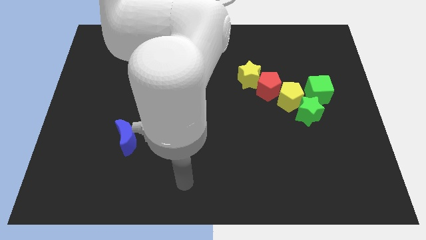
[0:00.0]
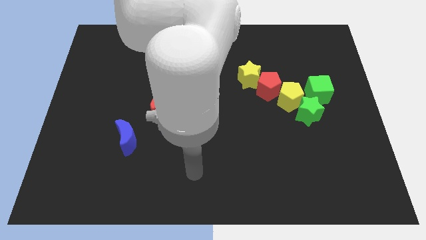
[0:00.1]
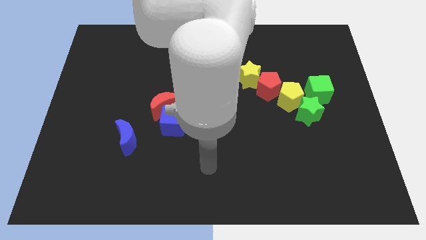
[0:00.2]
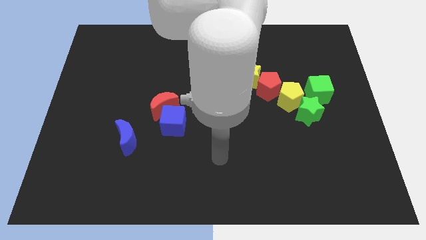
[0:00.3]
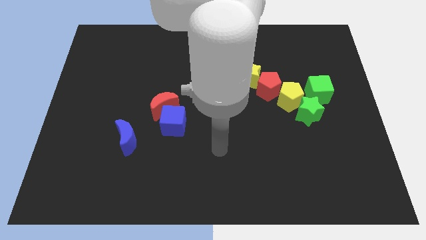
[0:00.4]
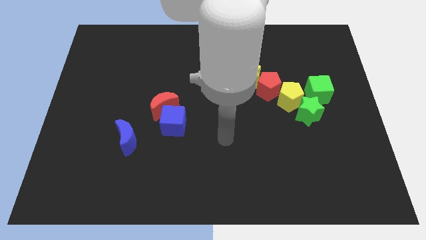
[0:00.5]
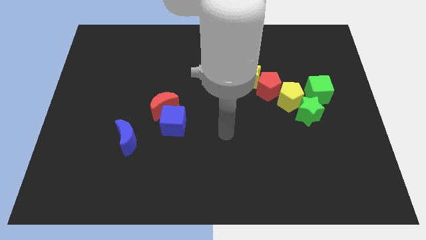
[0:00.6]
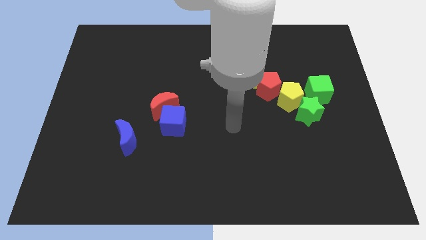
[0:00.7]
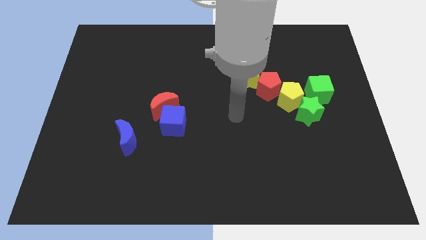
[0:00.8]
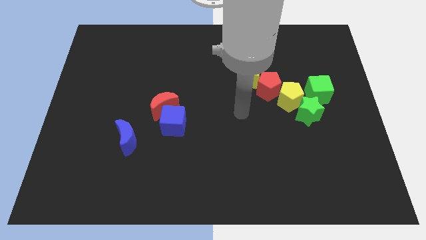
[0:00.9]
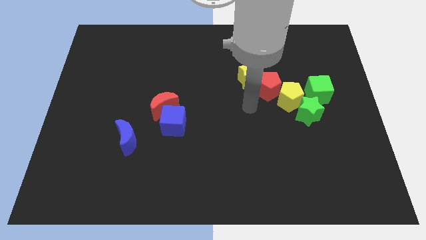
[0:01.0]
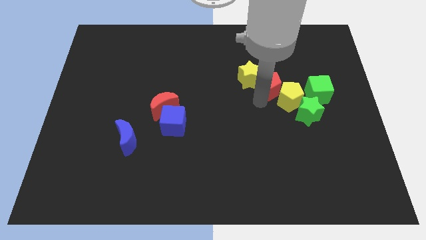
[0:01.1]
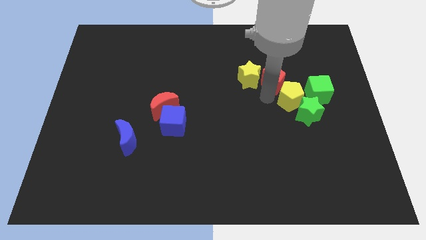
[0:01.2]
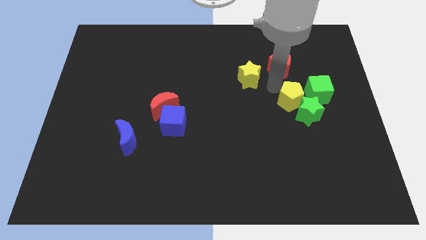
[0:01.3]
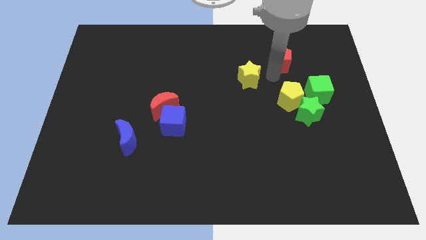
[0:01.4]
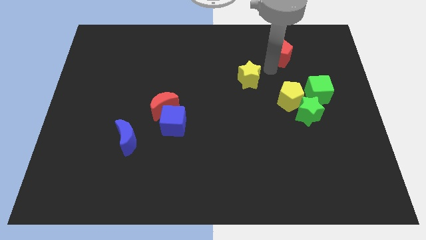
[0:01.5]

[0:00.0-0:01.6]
separate the yellow star from the red pentagon

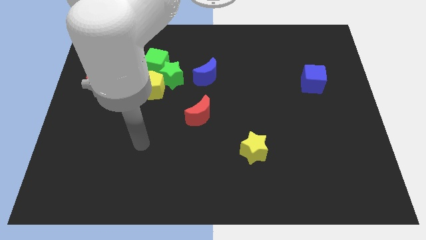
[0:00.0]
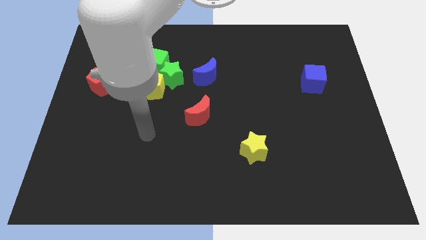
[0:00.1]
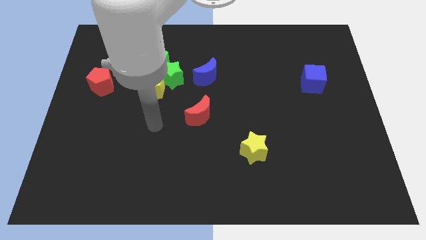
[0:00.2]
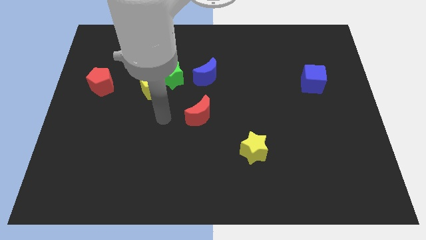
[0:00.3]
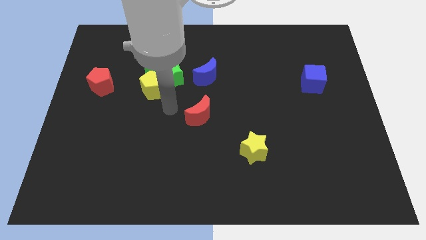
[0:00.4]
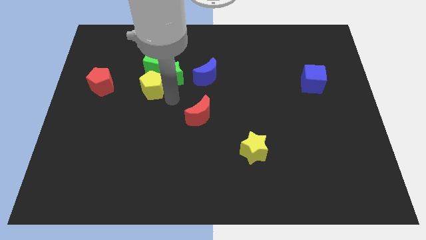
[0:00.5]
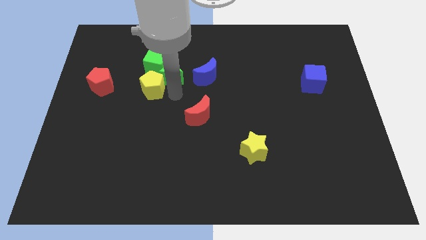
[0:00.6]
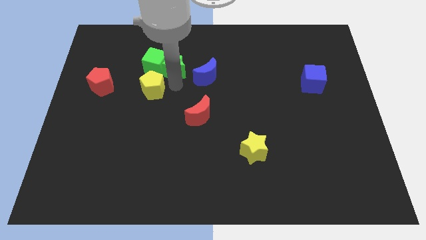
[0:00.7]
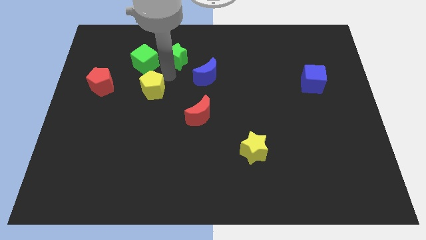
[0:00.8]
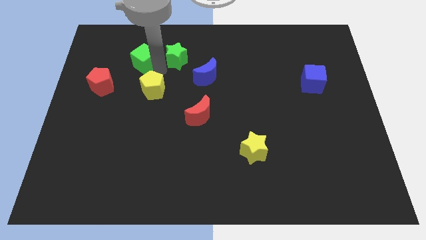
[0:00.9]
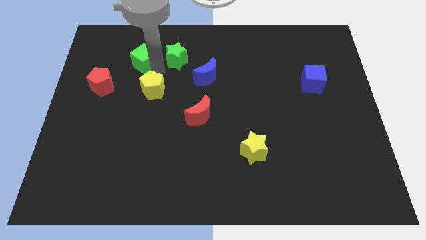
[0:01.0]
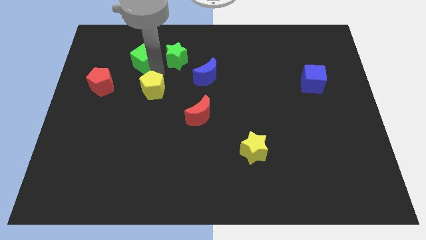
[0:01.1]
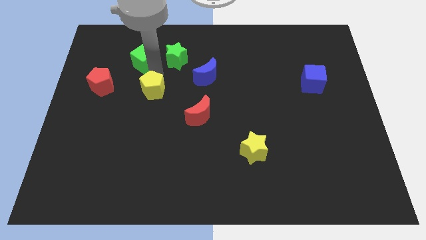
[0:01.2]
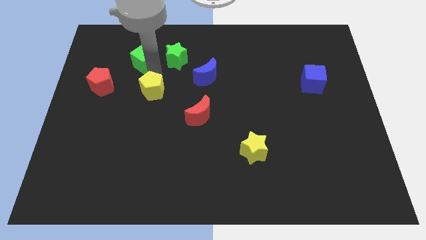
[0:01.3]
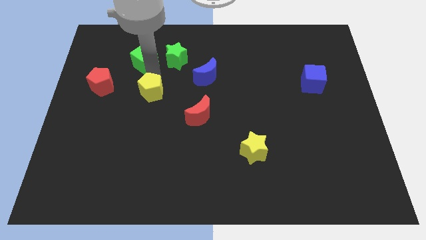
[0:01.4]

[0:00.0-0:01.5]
pull the yellow pentagon apart from the green star and green cube

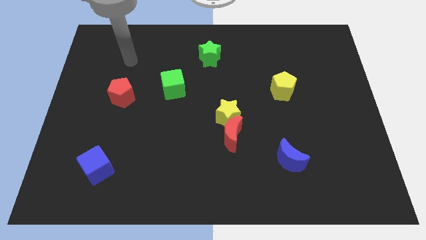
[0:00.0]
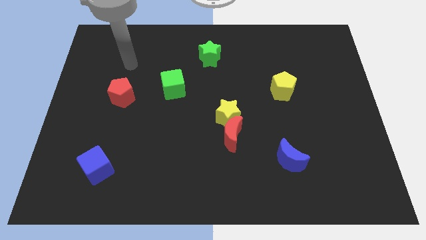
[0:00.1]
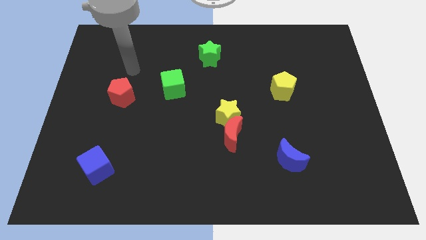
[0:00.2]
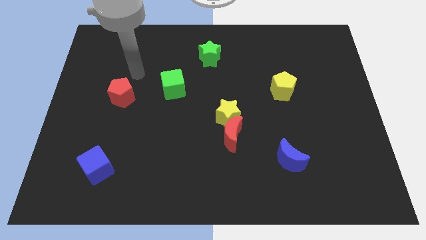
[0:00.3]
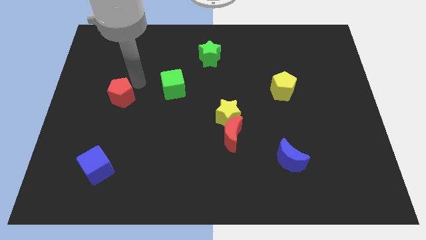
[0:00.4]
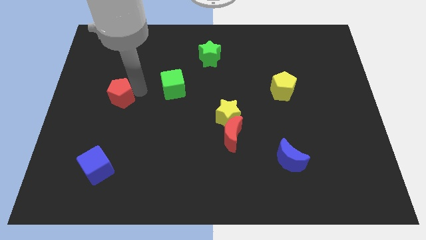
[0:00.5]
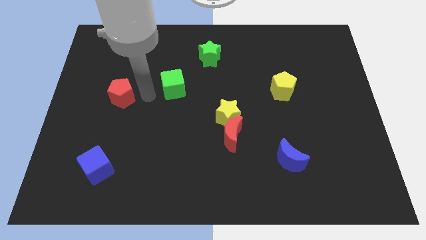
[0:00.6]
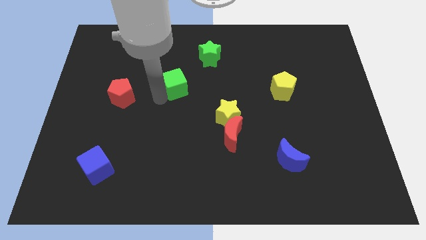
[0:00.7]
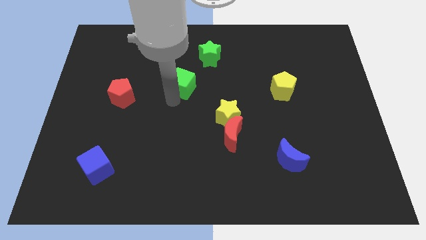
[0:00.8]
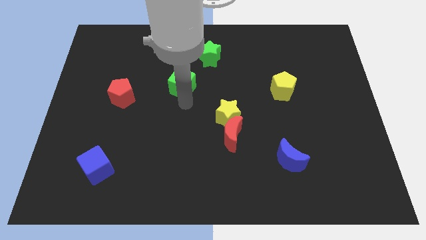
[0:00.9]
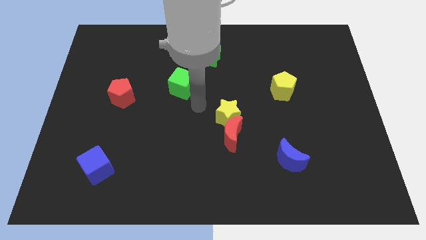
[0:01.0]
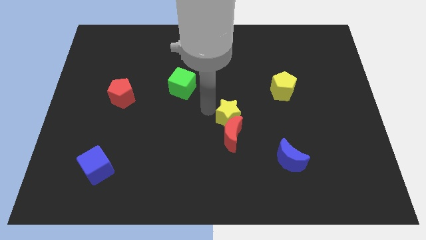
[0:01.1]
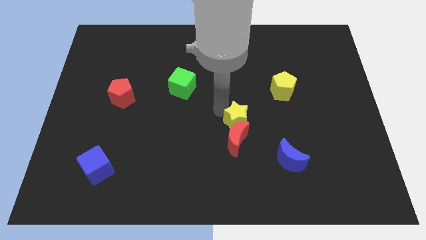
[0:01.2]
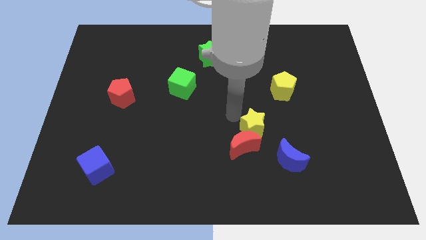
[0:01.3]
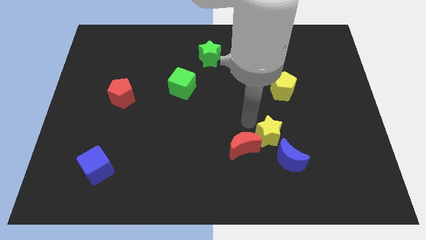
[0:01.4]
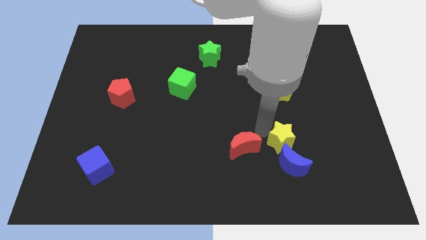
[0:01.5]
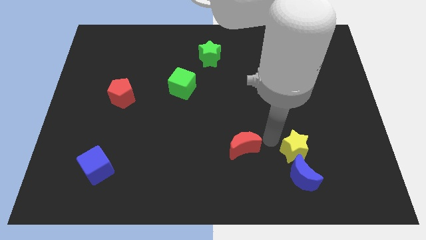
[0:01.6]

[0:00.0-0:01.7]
move the red moon away from the yellow star

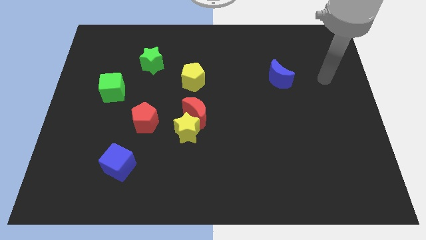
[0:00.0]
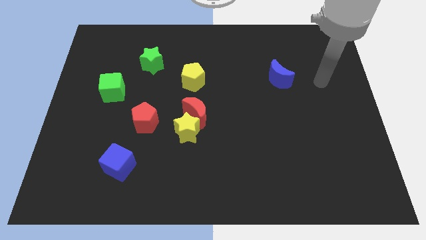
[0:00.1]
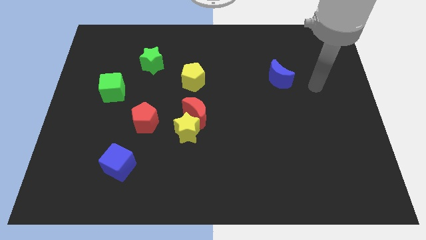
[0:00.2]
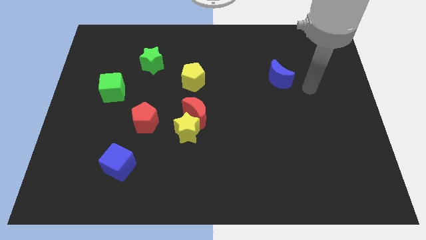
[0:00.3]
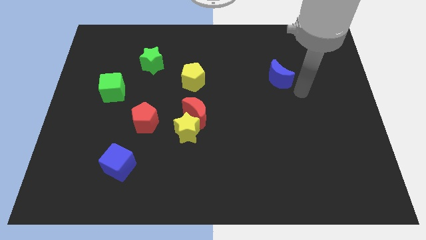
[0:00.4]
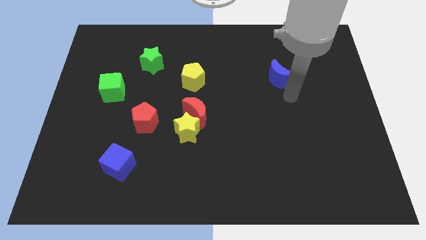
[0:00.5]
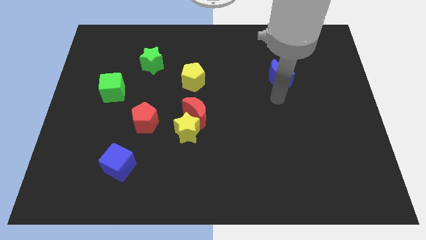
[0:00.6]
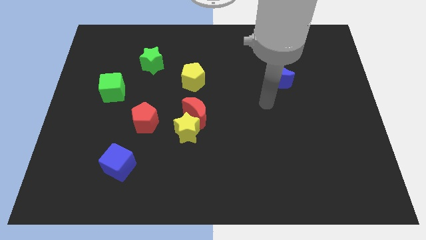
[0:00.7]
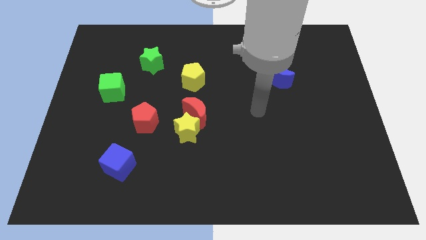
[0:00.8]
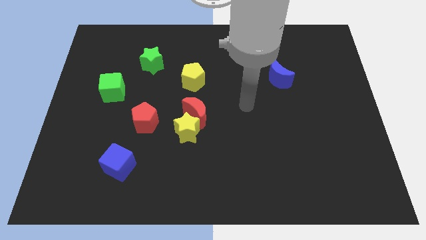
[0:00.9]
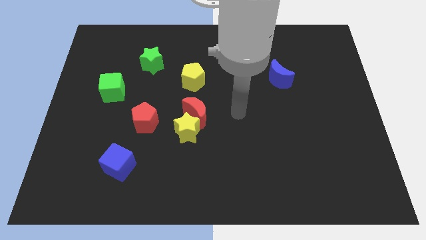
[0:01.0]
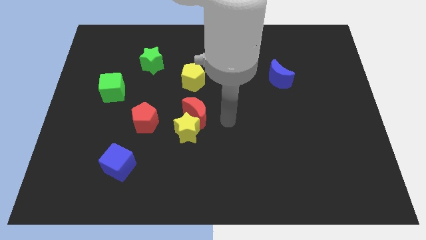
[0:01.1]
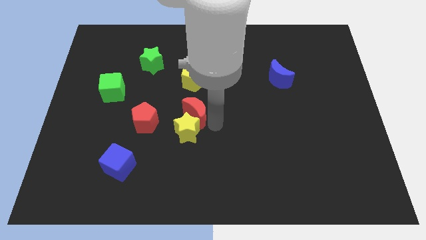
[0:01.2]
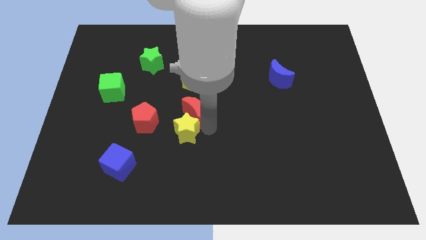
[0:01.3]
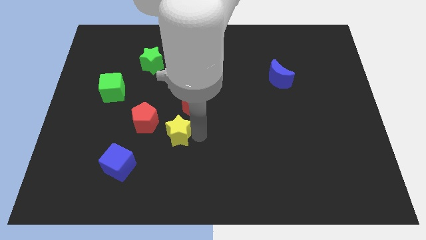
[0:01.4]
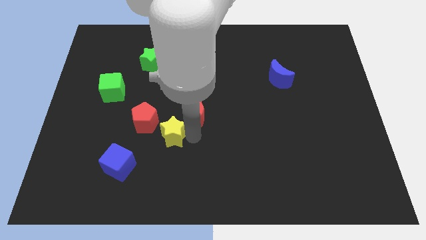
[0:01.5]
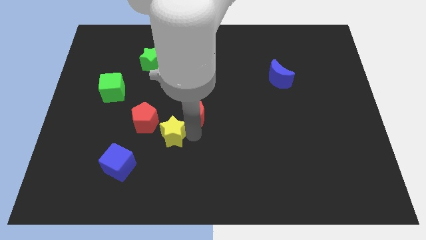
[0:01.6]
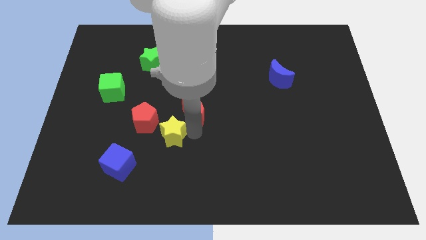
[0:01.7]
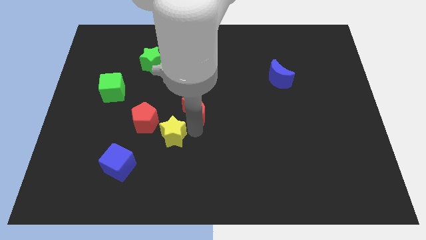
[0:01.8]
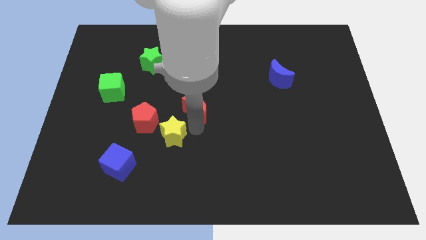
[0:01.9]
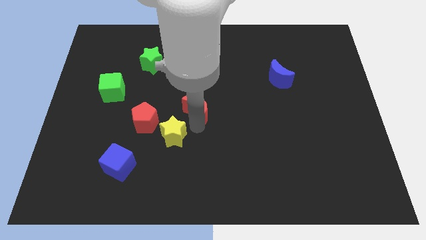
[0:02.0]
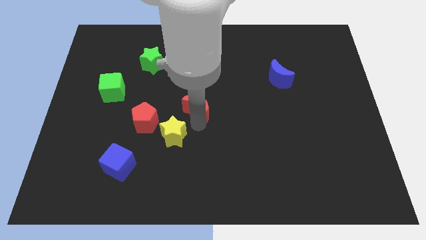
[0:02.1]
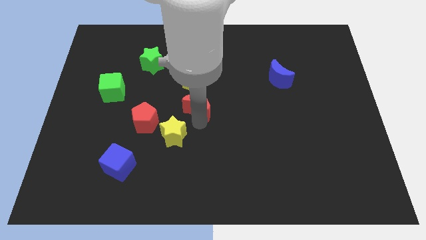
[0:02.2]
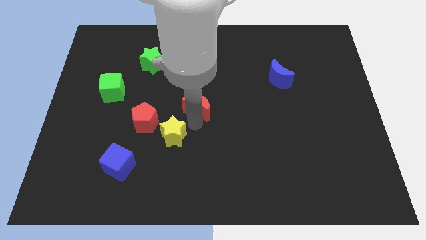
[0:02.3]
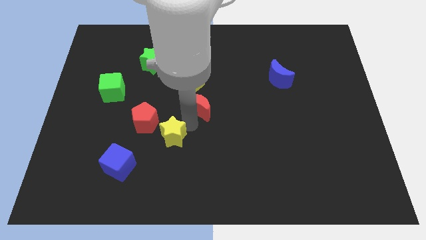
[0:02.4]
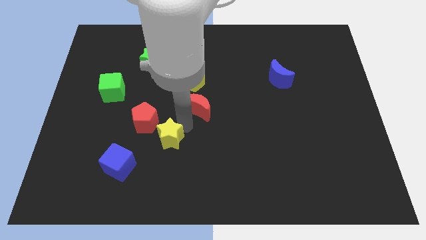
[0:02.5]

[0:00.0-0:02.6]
pull the red moon apart from the yellow star

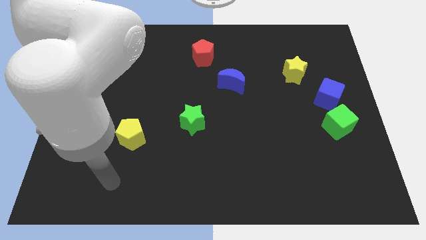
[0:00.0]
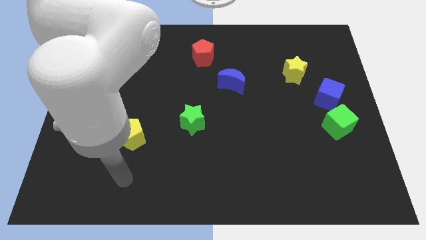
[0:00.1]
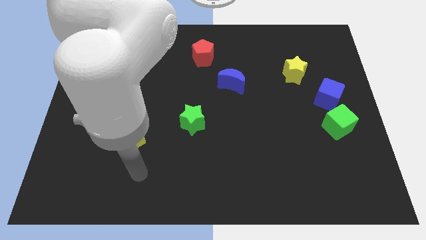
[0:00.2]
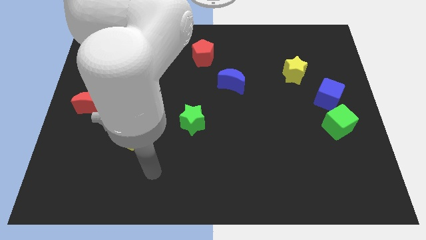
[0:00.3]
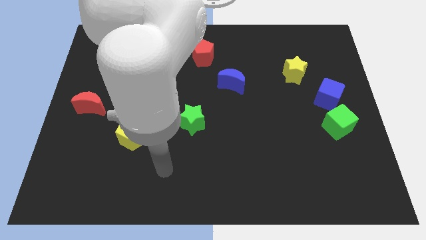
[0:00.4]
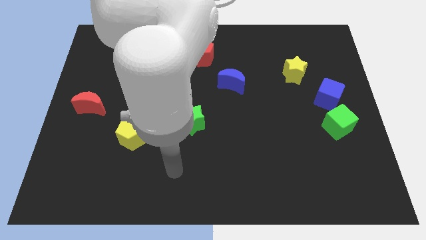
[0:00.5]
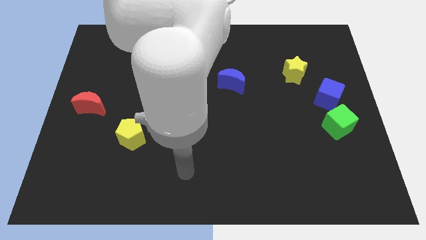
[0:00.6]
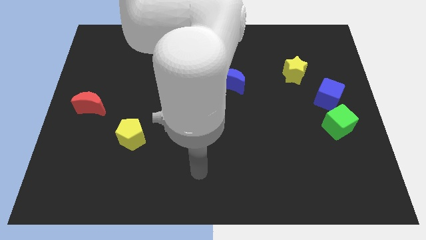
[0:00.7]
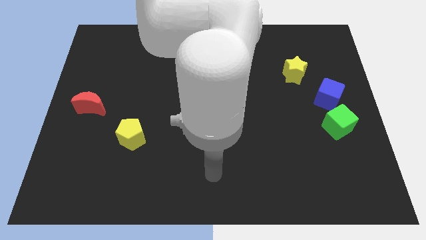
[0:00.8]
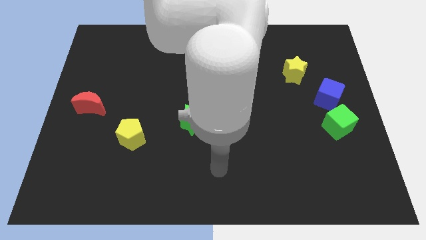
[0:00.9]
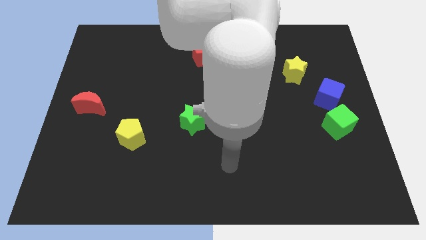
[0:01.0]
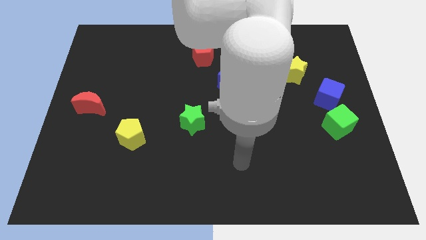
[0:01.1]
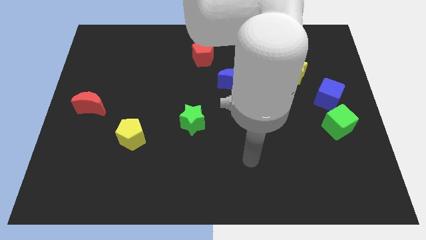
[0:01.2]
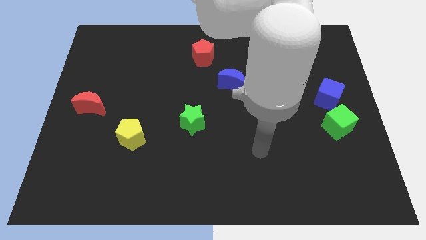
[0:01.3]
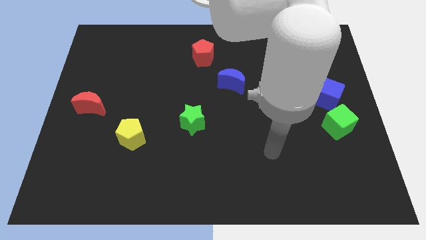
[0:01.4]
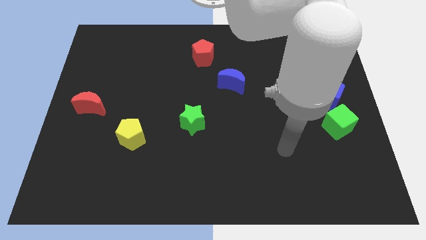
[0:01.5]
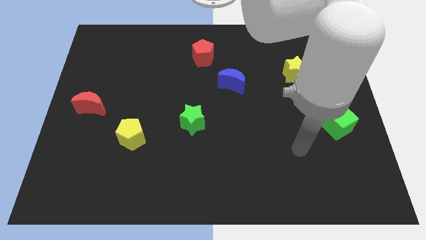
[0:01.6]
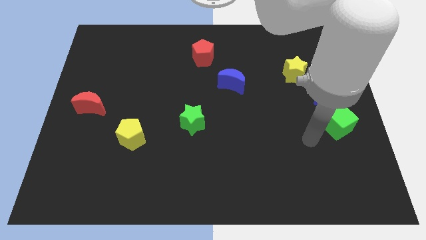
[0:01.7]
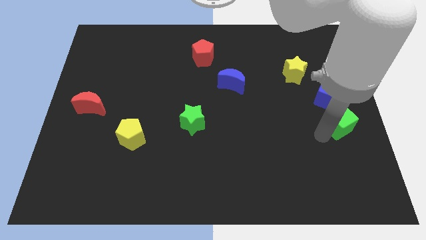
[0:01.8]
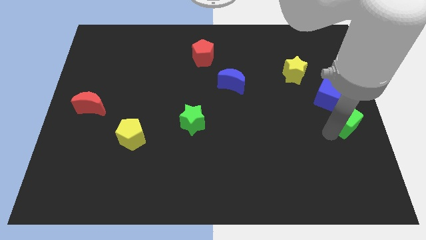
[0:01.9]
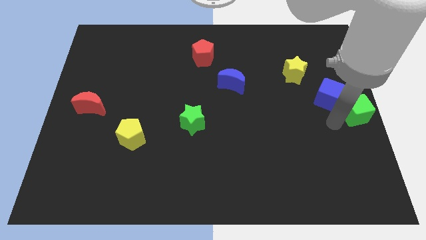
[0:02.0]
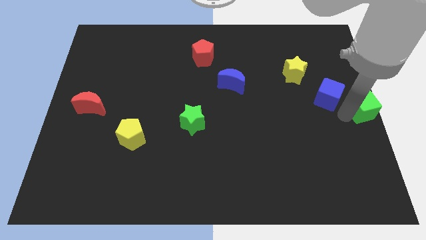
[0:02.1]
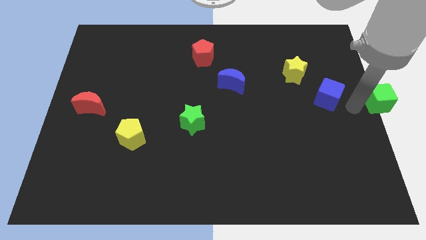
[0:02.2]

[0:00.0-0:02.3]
move the blue cube away from the green cube
